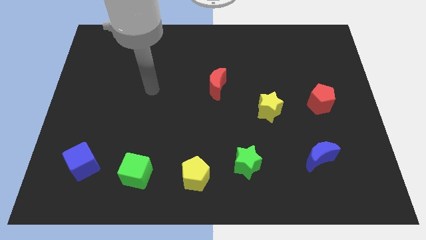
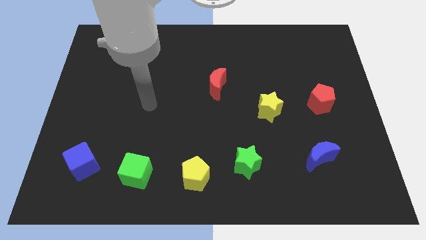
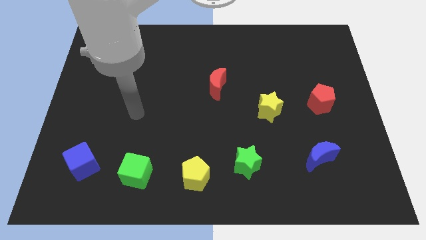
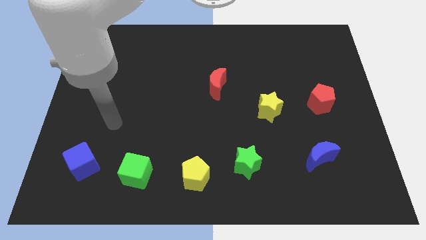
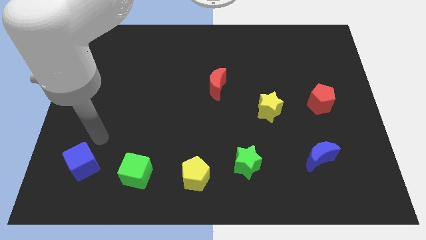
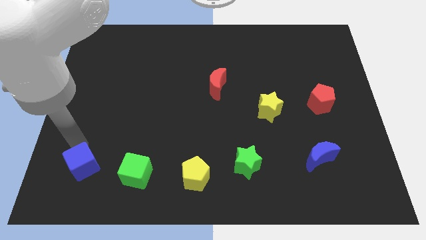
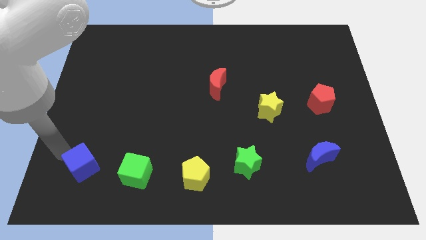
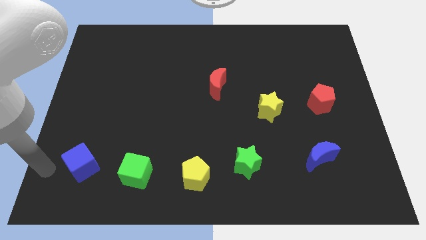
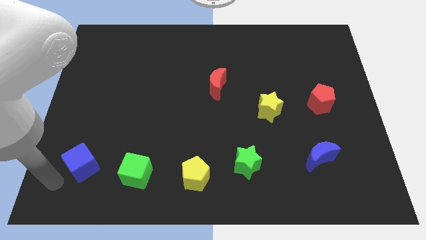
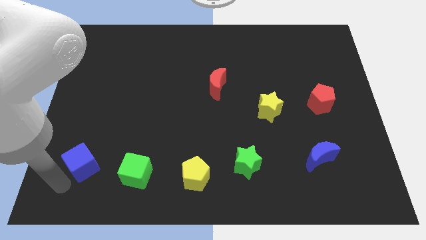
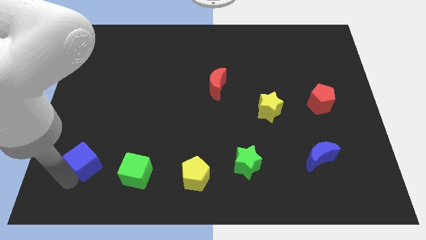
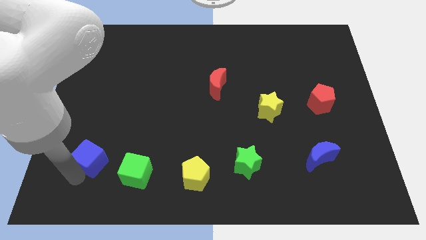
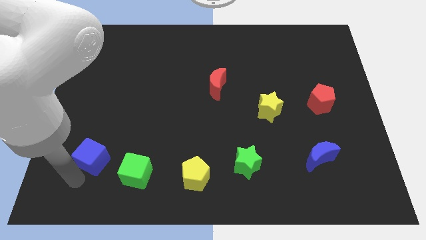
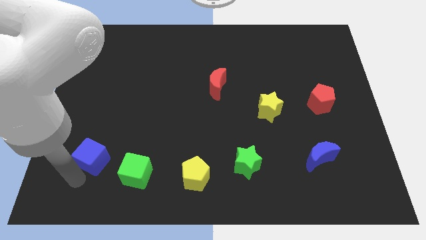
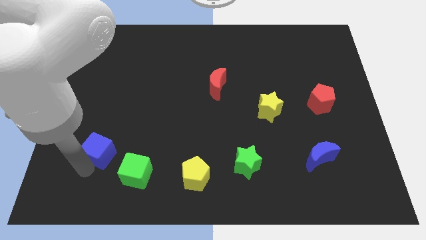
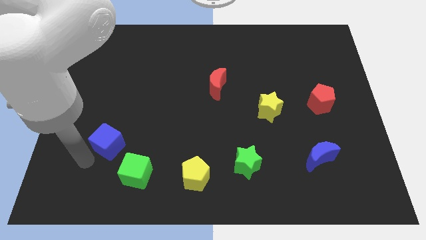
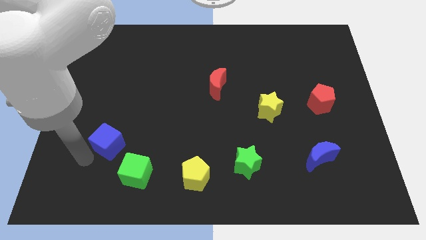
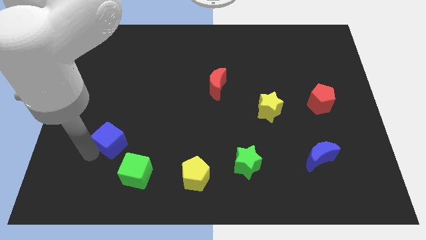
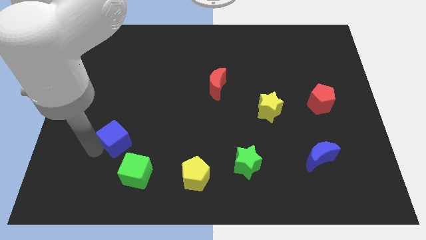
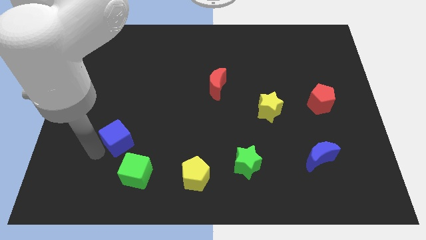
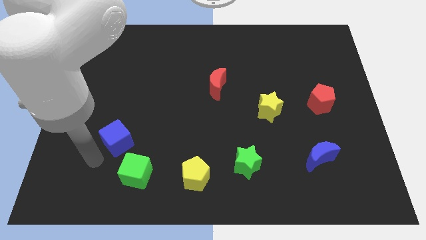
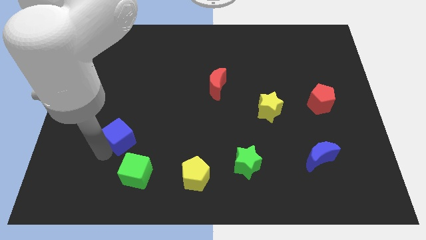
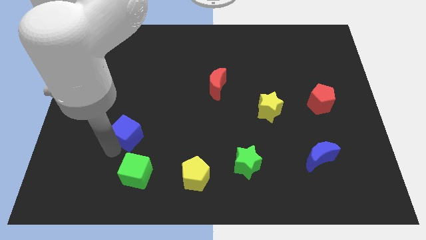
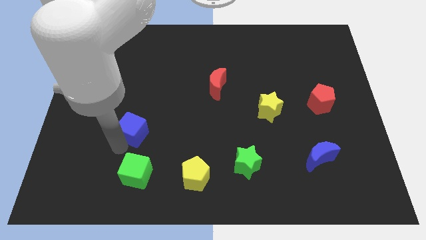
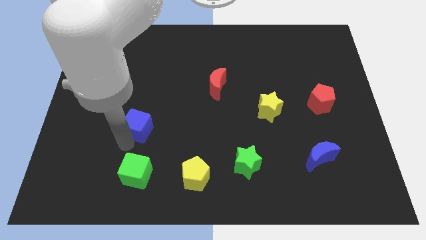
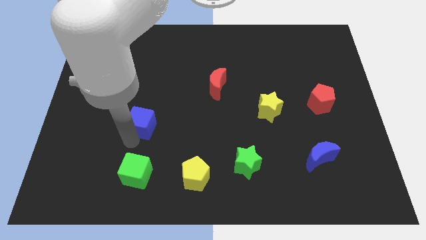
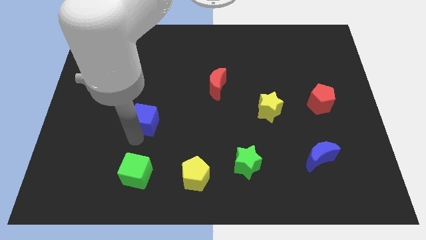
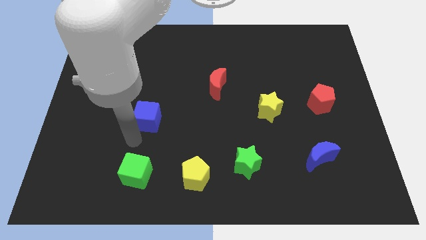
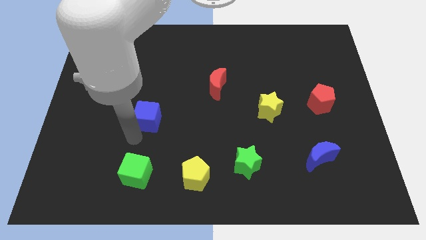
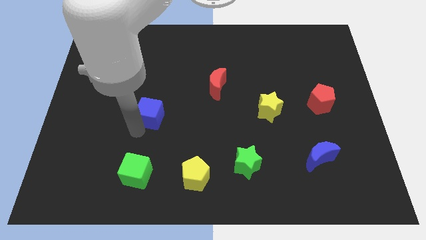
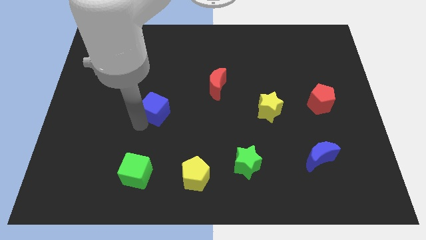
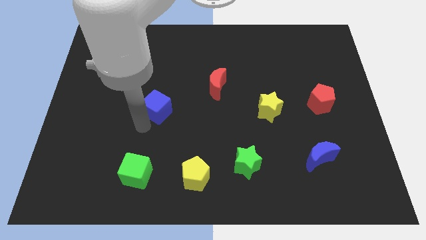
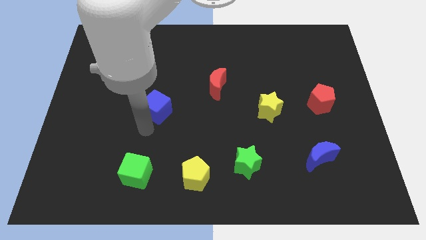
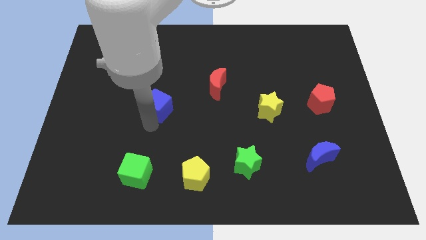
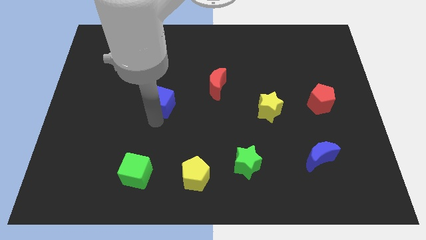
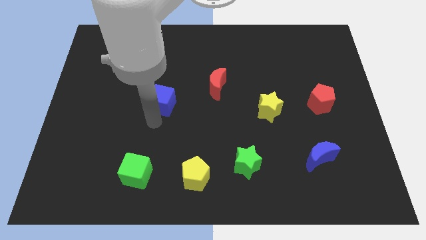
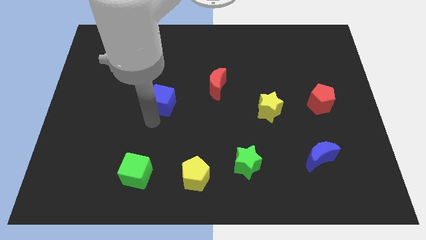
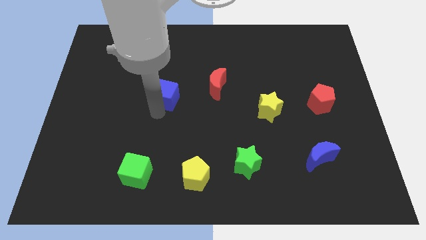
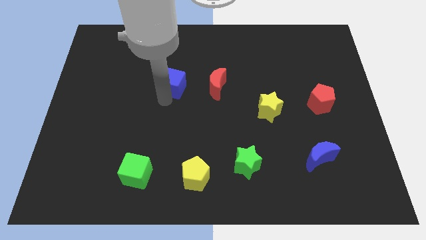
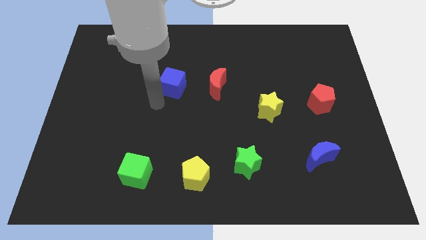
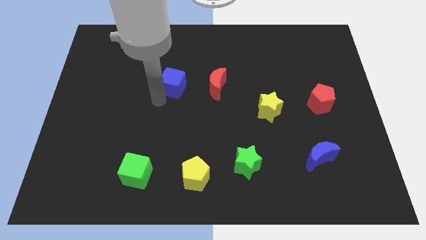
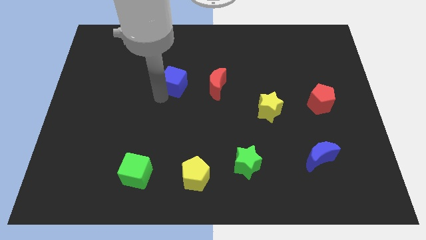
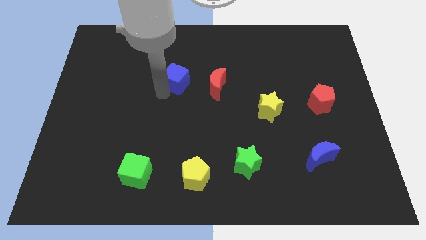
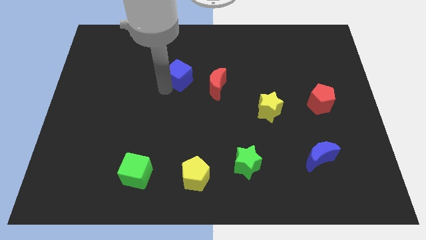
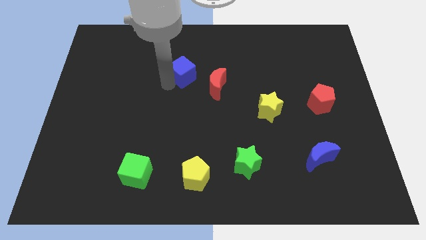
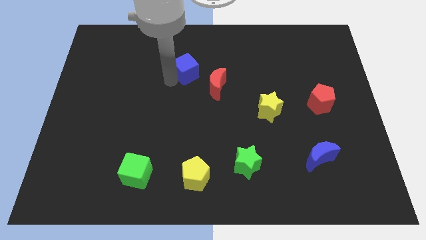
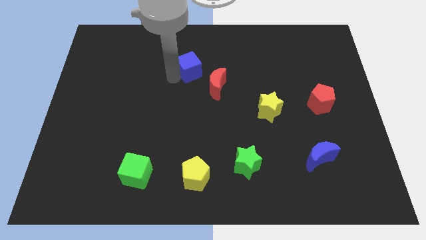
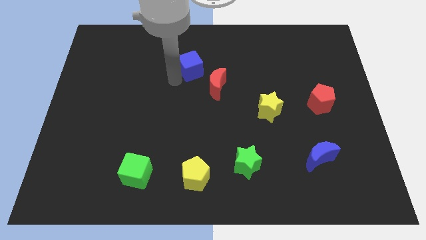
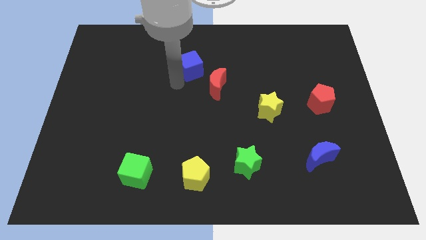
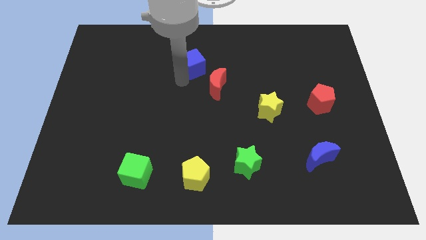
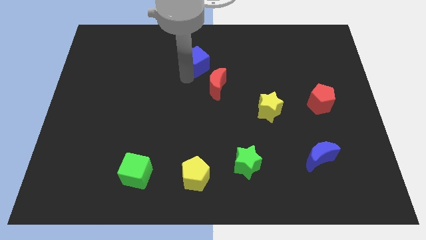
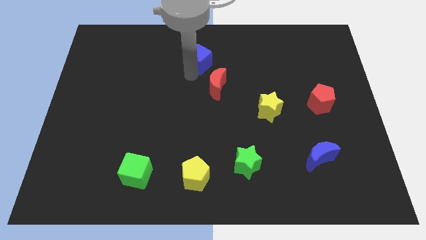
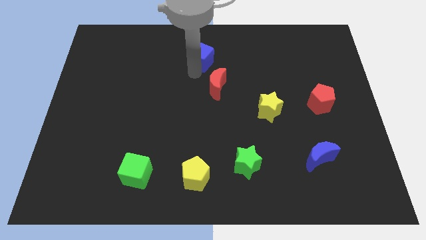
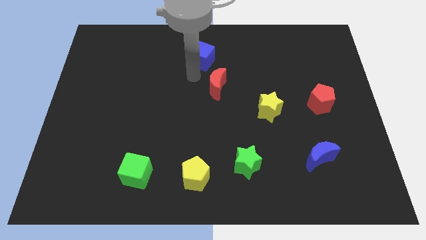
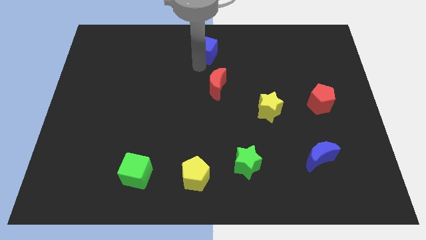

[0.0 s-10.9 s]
move the blue cube to the top

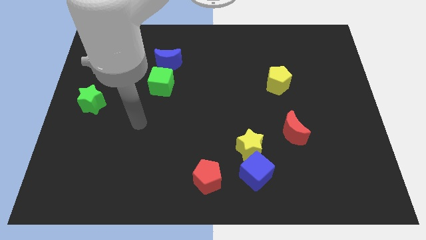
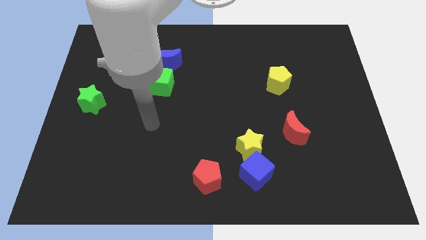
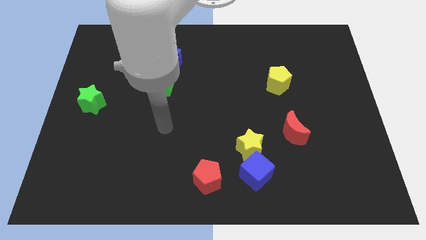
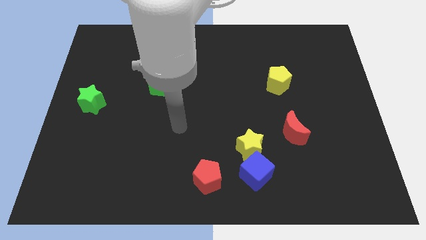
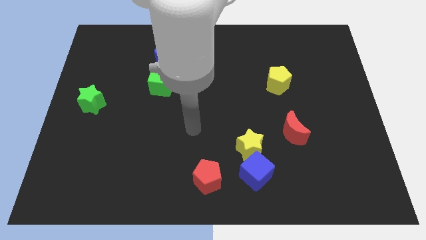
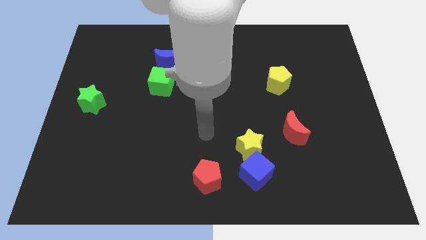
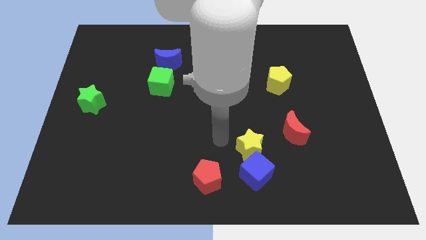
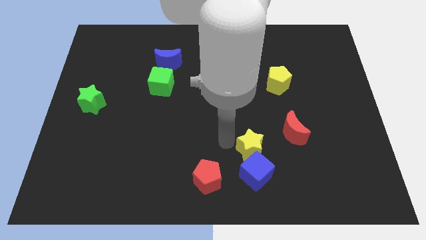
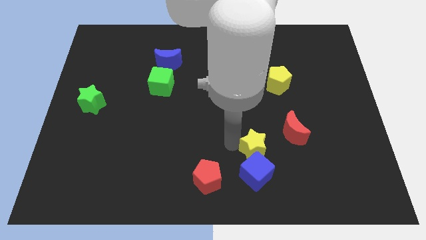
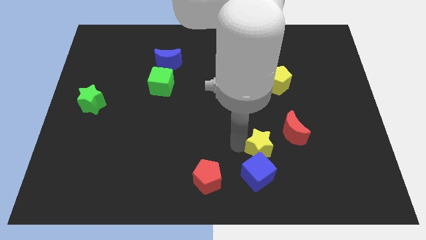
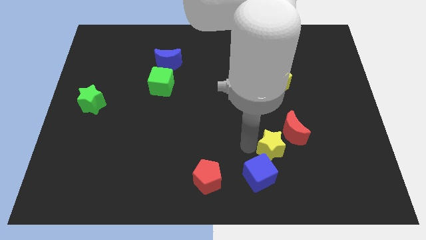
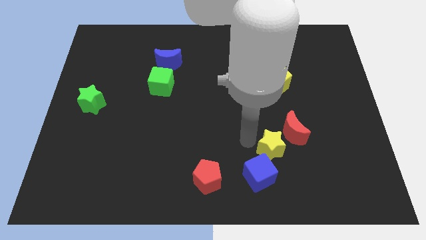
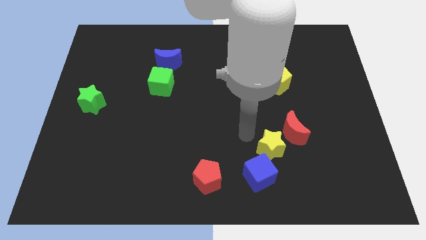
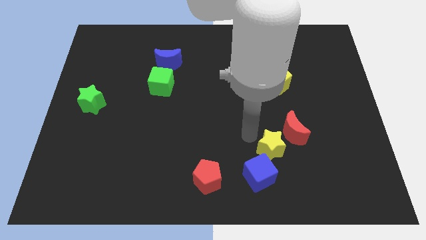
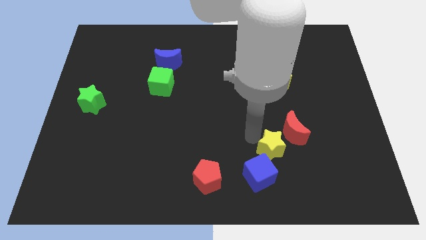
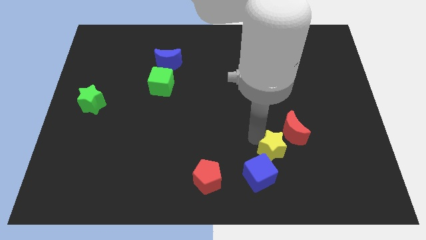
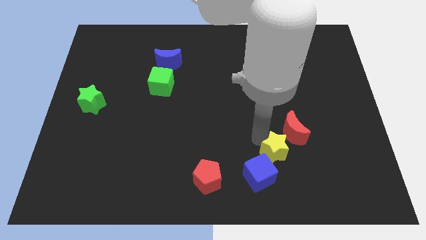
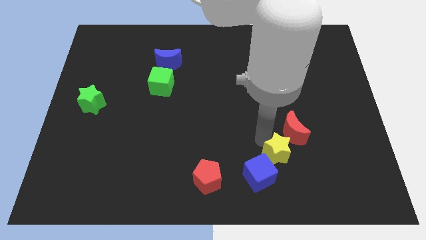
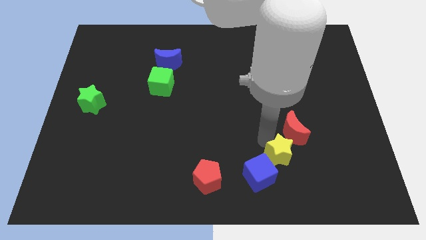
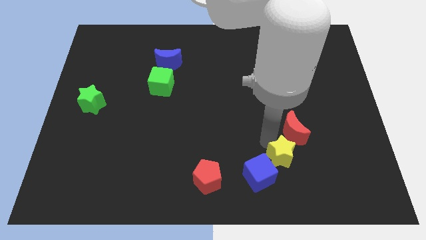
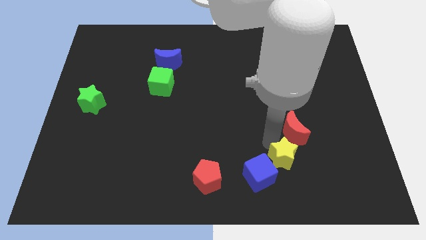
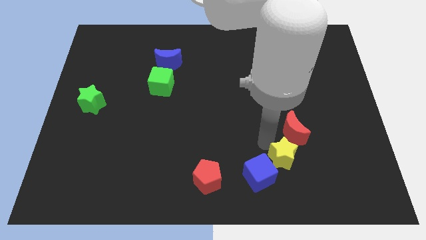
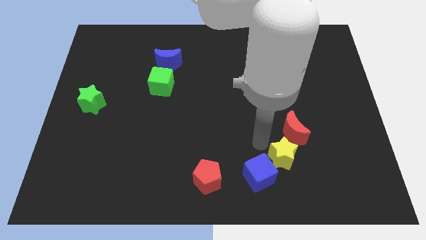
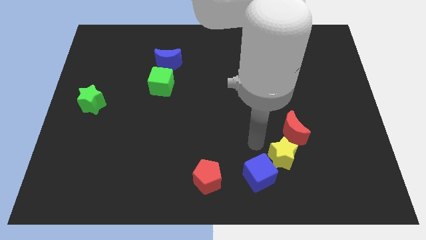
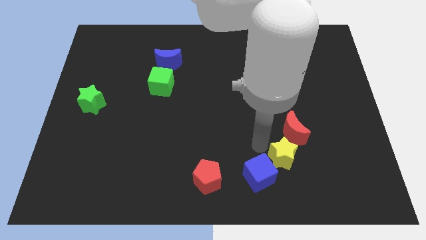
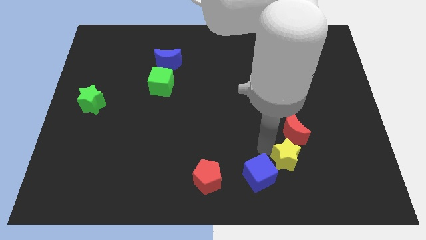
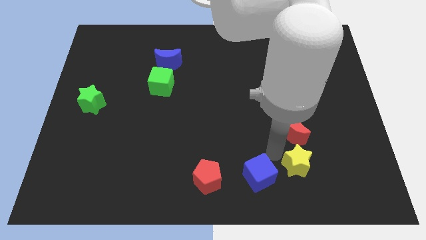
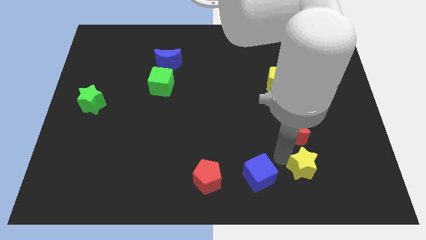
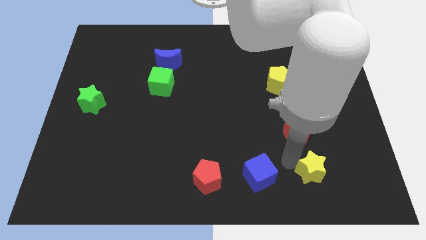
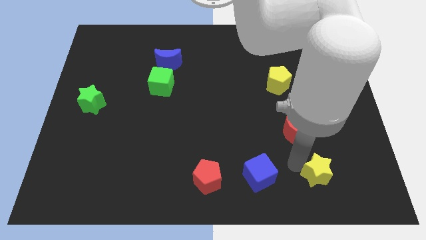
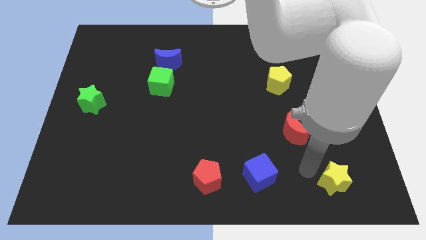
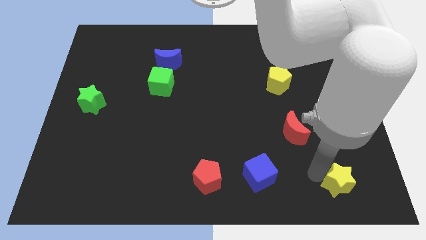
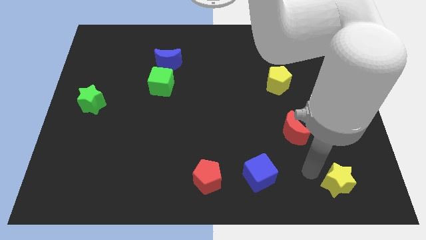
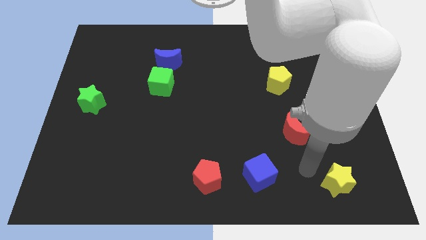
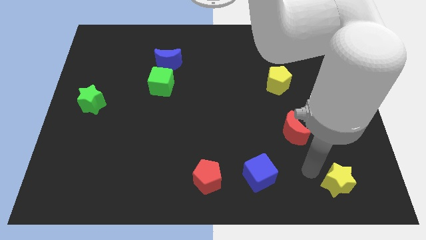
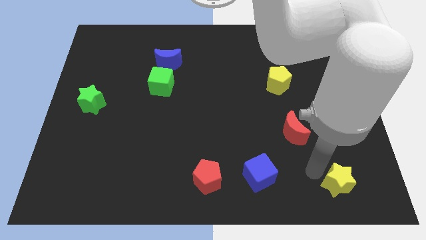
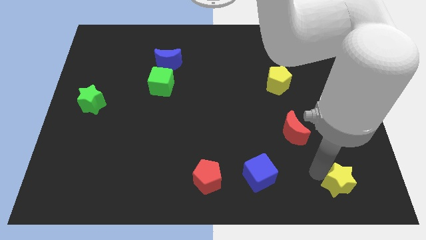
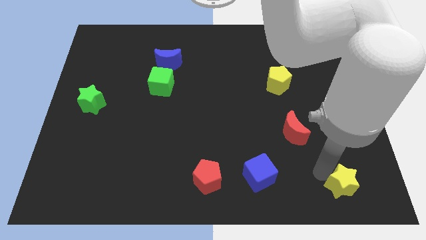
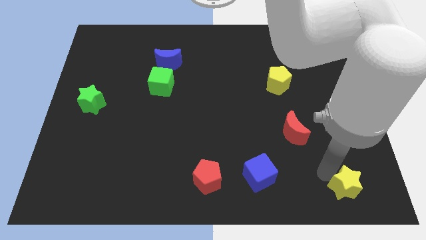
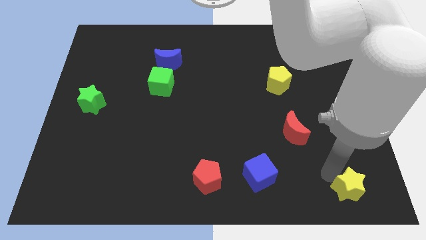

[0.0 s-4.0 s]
move the yellow star to the lower right corner
